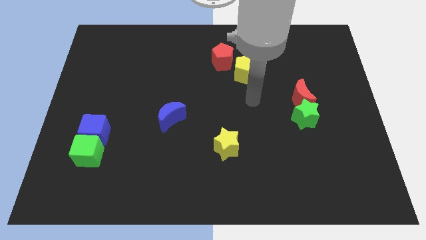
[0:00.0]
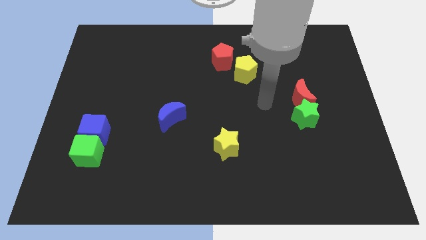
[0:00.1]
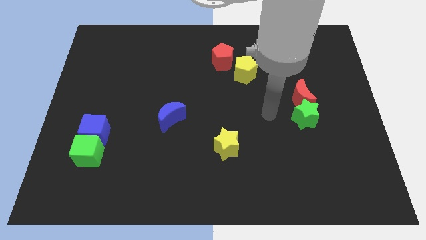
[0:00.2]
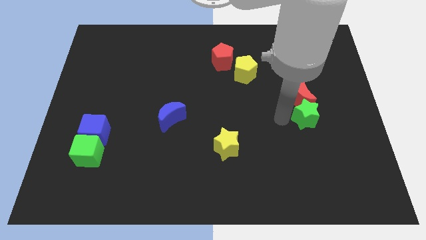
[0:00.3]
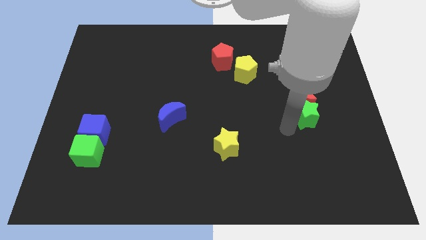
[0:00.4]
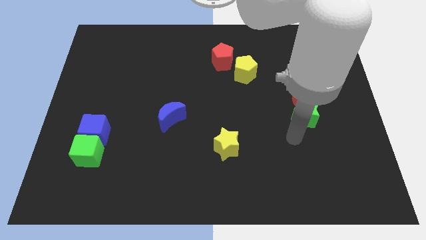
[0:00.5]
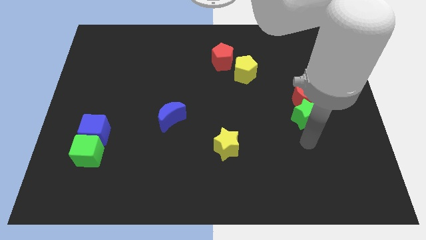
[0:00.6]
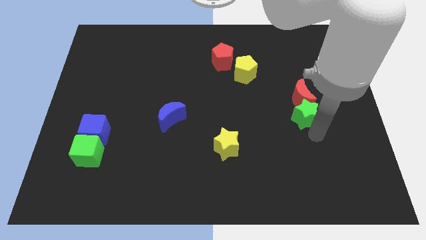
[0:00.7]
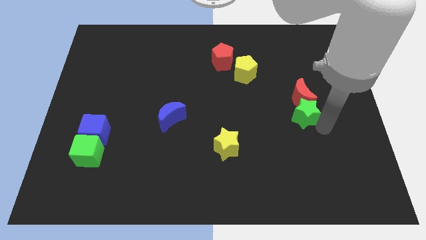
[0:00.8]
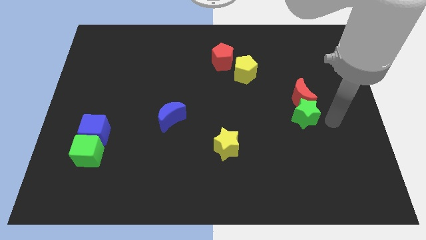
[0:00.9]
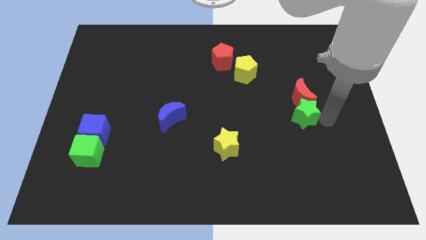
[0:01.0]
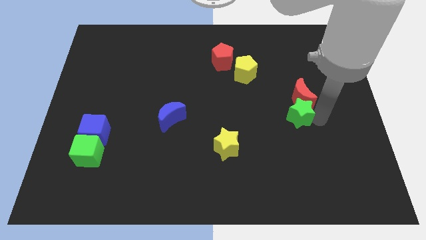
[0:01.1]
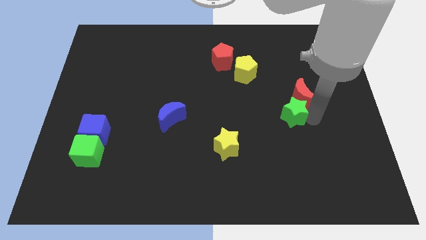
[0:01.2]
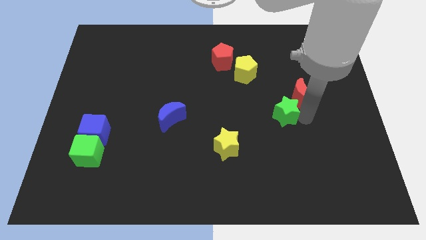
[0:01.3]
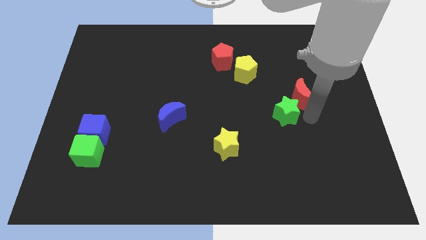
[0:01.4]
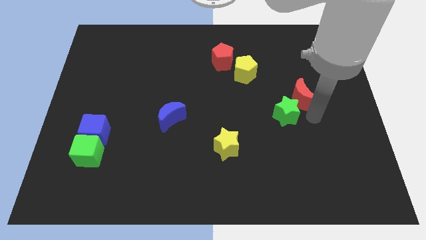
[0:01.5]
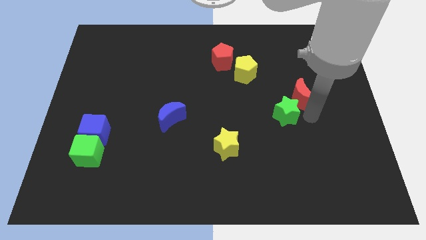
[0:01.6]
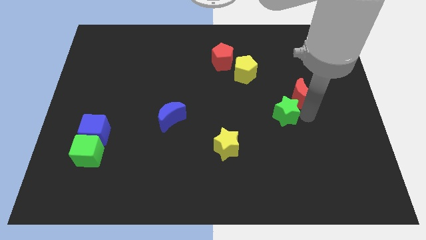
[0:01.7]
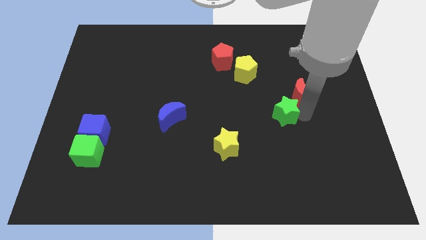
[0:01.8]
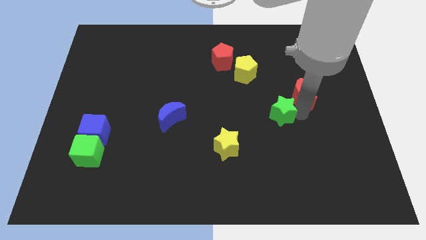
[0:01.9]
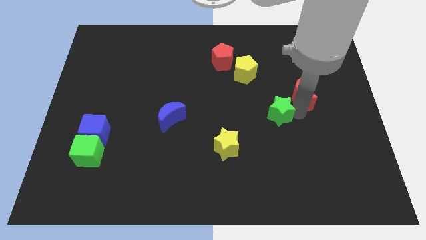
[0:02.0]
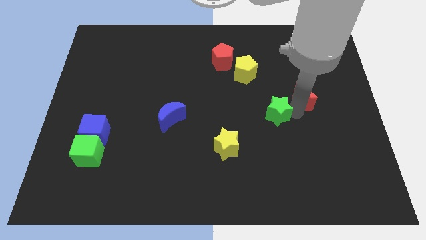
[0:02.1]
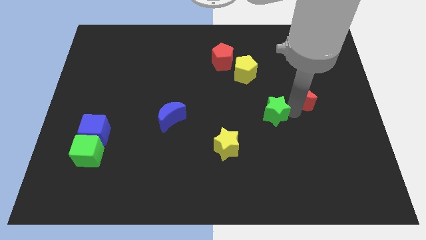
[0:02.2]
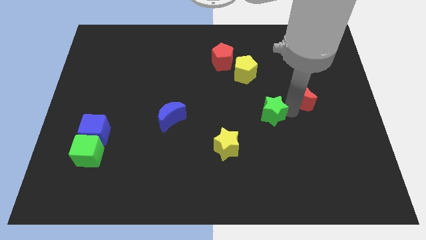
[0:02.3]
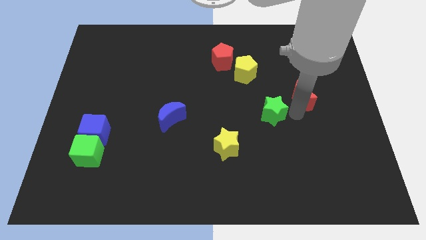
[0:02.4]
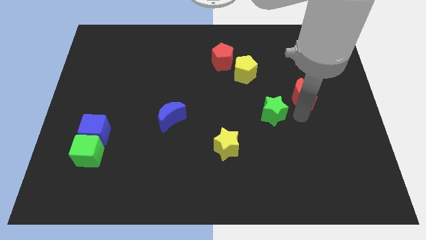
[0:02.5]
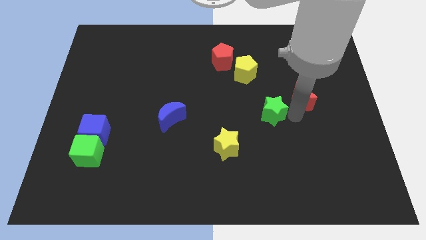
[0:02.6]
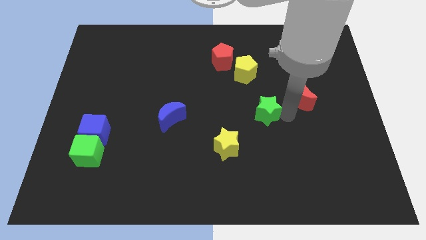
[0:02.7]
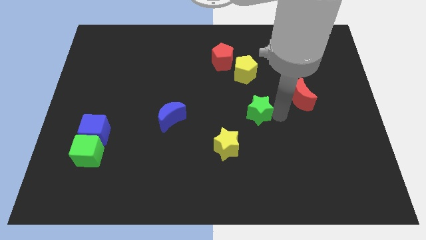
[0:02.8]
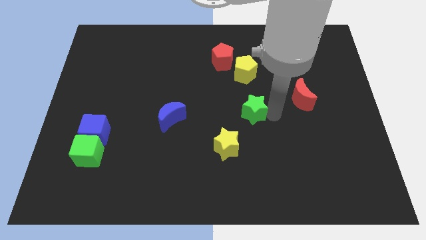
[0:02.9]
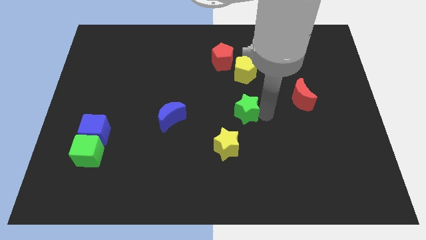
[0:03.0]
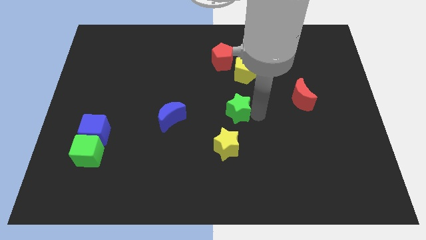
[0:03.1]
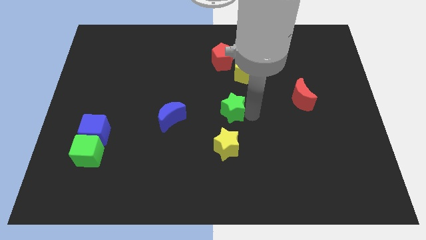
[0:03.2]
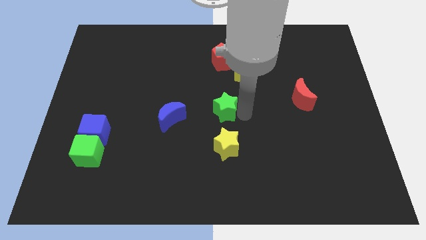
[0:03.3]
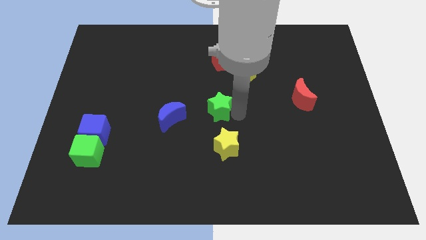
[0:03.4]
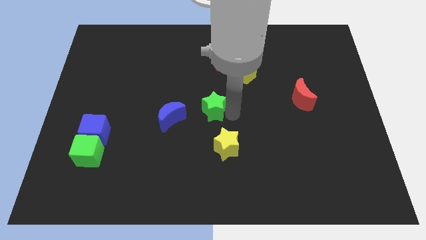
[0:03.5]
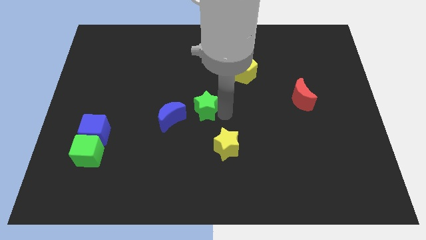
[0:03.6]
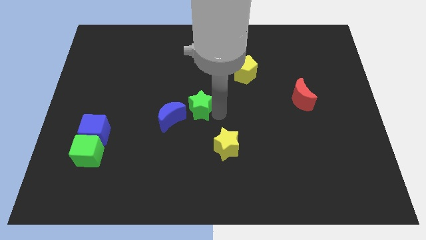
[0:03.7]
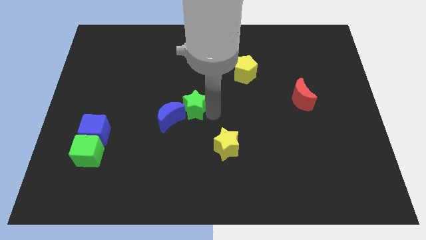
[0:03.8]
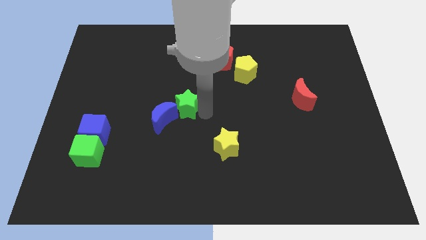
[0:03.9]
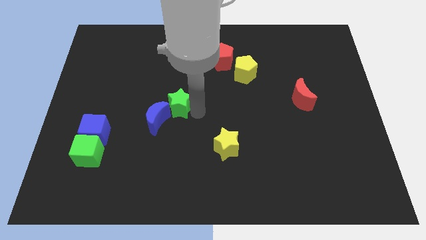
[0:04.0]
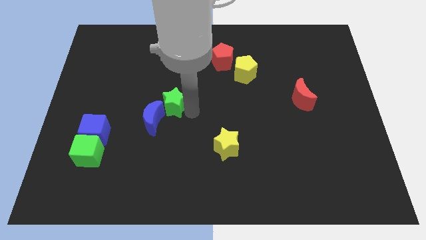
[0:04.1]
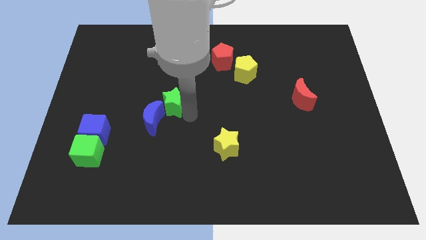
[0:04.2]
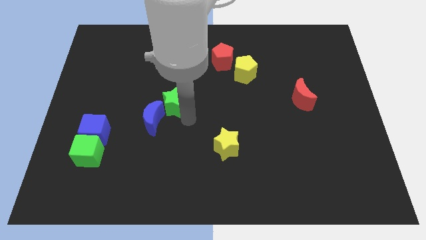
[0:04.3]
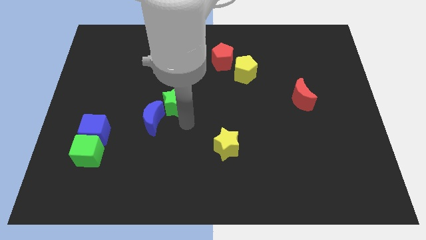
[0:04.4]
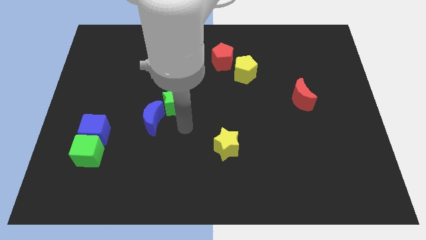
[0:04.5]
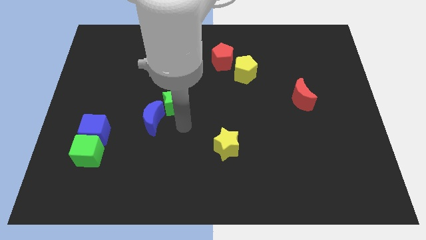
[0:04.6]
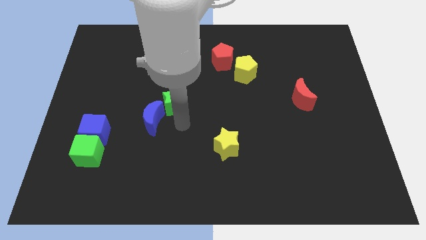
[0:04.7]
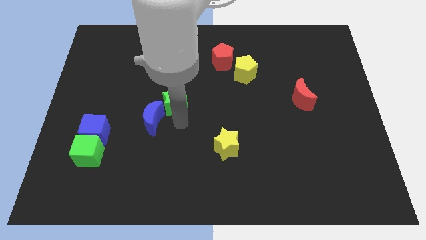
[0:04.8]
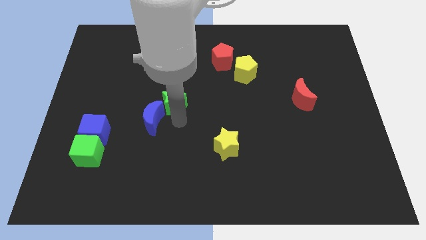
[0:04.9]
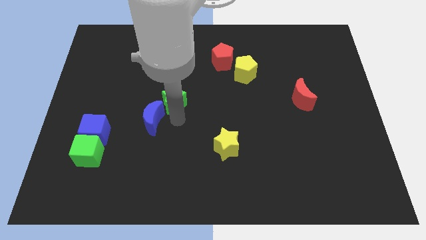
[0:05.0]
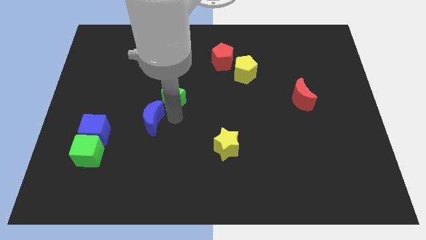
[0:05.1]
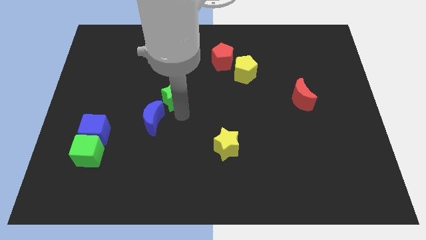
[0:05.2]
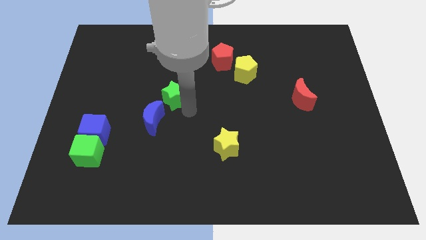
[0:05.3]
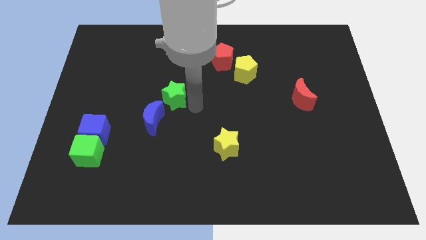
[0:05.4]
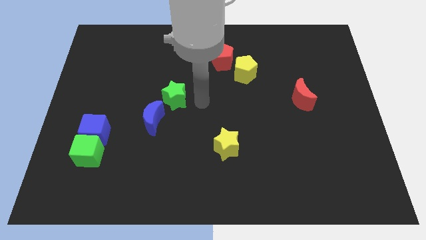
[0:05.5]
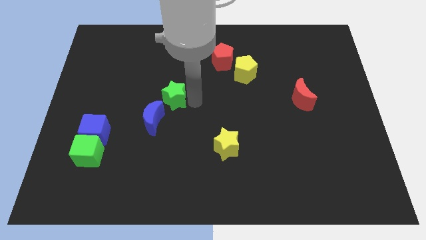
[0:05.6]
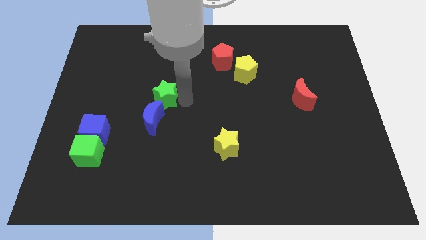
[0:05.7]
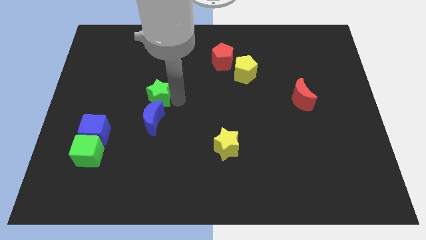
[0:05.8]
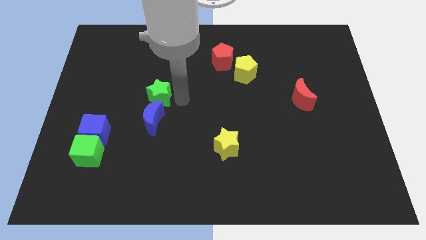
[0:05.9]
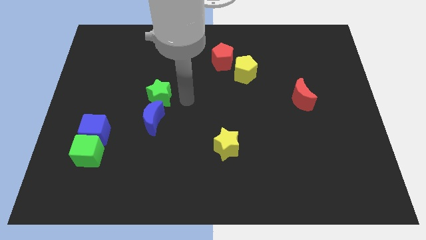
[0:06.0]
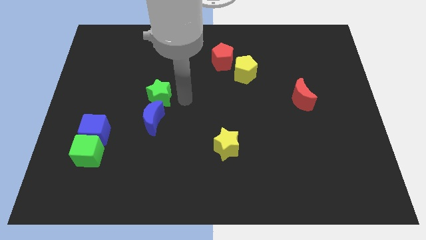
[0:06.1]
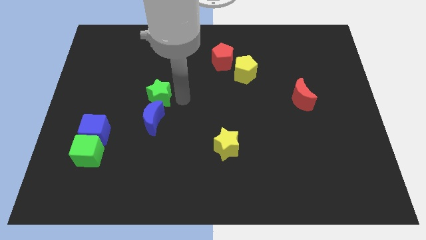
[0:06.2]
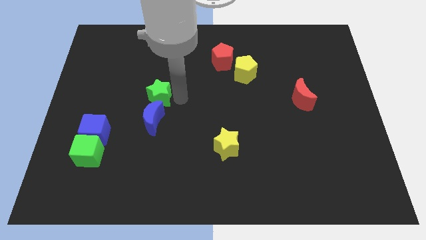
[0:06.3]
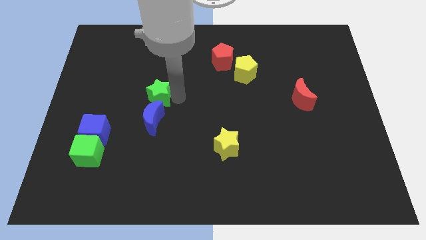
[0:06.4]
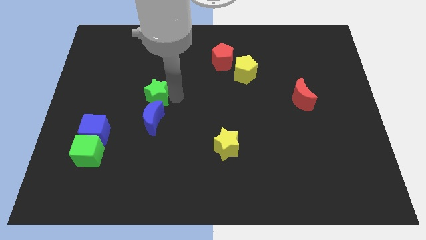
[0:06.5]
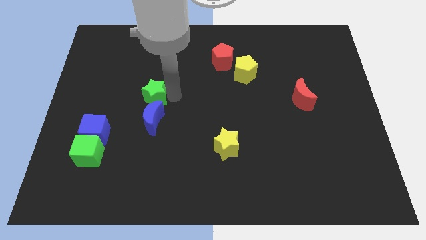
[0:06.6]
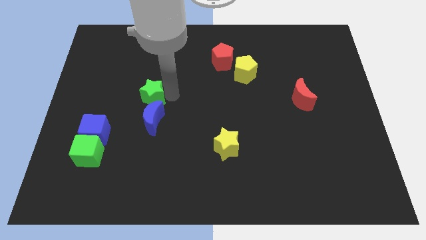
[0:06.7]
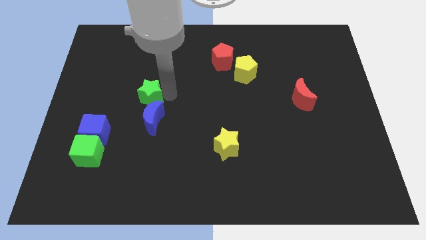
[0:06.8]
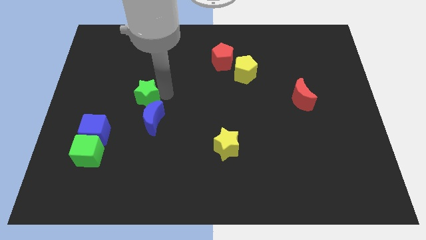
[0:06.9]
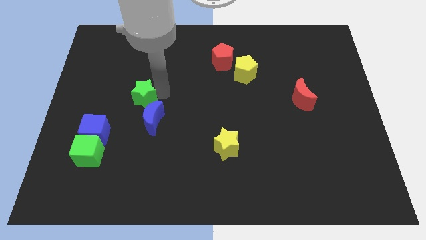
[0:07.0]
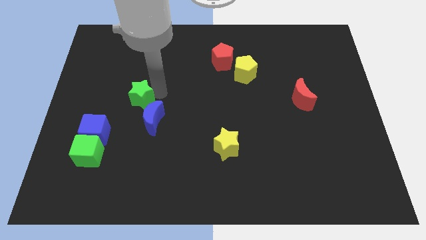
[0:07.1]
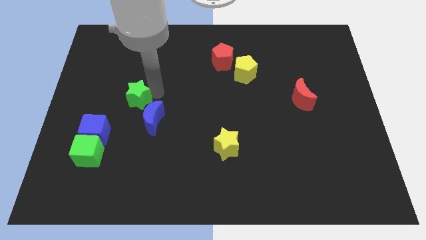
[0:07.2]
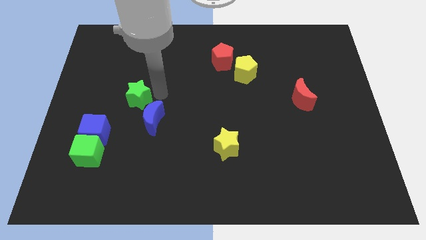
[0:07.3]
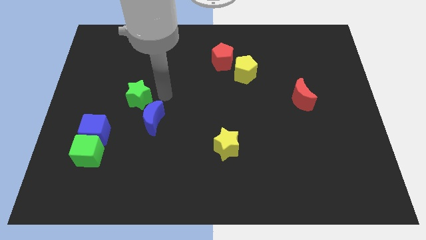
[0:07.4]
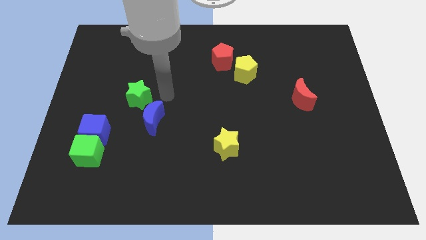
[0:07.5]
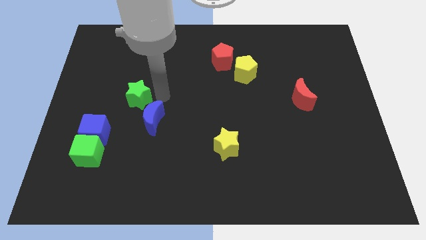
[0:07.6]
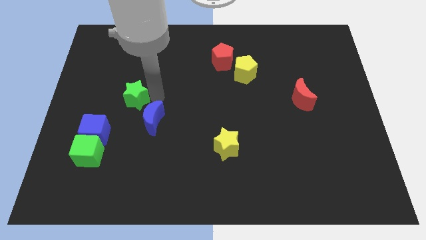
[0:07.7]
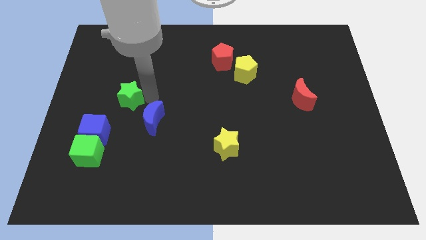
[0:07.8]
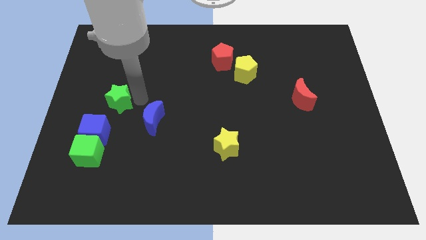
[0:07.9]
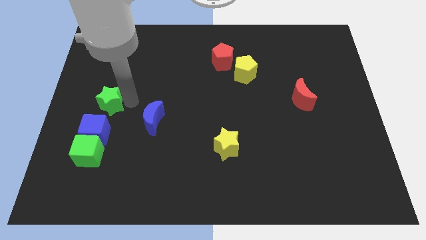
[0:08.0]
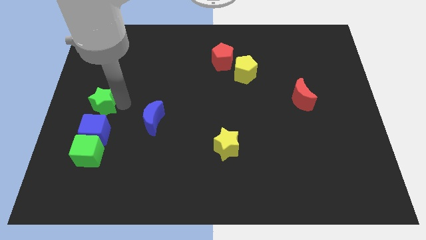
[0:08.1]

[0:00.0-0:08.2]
push the green star to the left side
